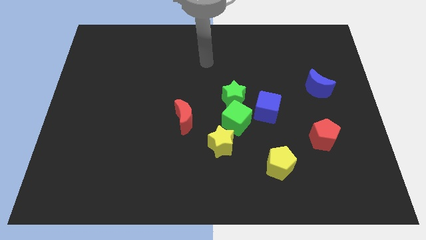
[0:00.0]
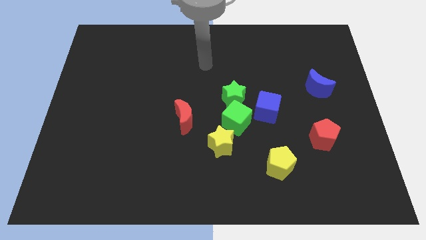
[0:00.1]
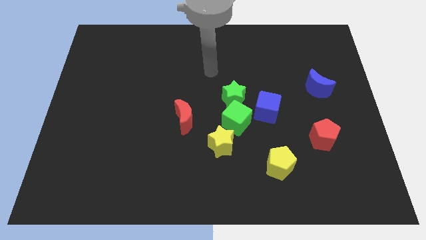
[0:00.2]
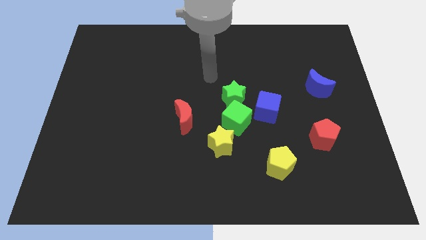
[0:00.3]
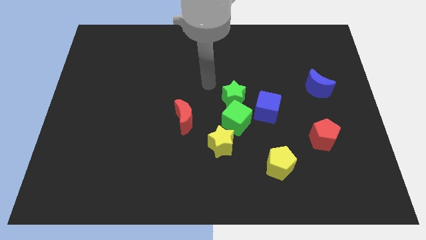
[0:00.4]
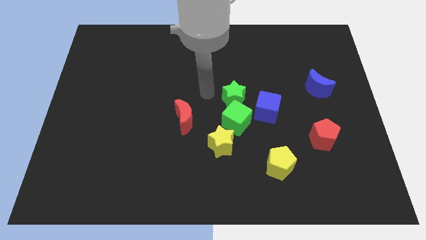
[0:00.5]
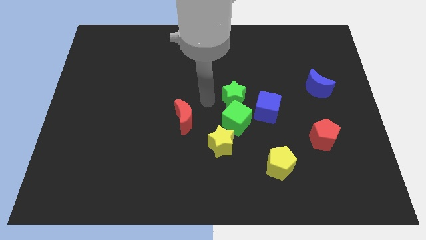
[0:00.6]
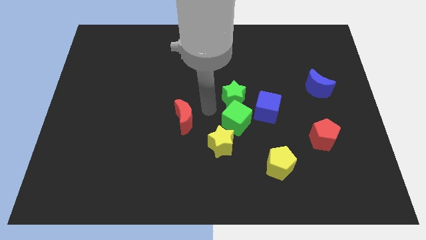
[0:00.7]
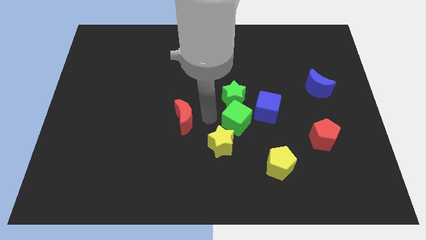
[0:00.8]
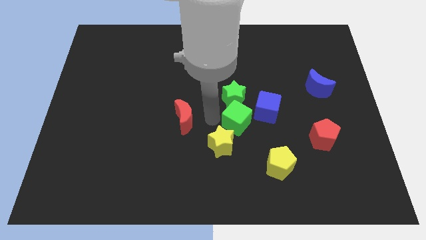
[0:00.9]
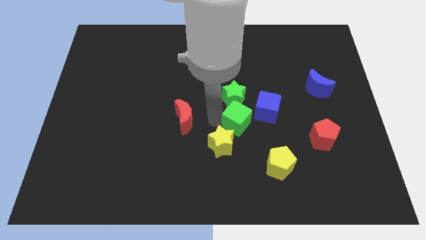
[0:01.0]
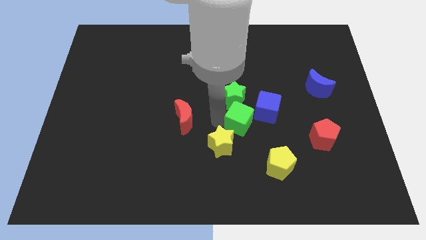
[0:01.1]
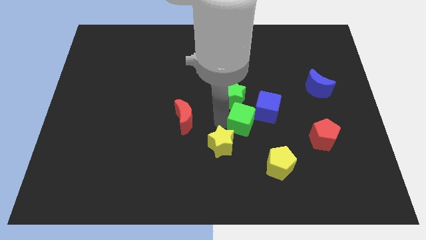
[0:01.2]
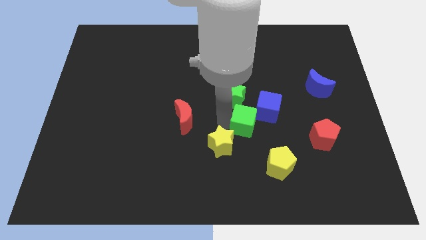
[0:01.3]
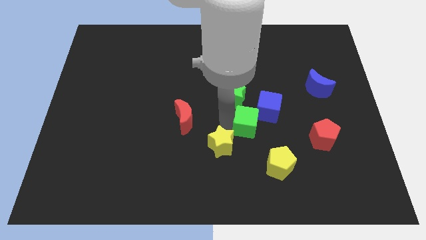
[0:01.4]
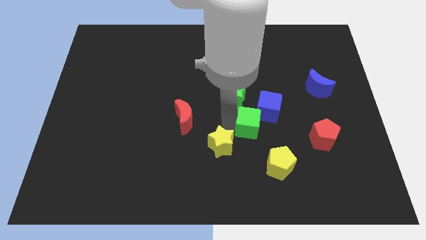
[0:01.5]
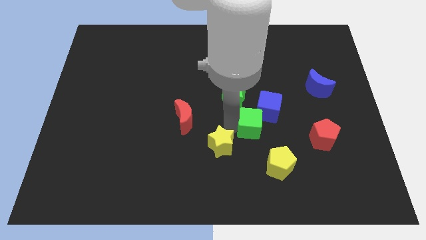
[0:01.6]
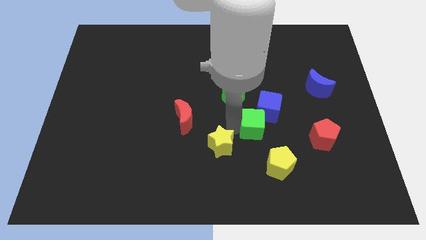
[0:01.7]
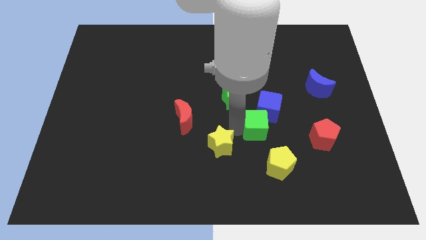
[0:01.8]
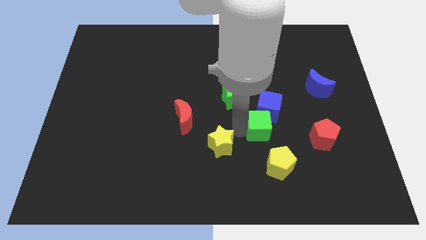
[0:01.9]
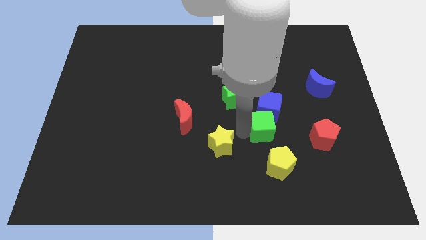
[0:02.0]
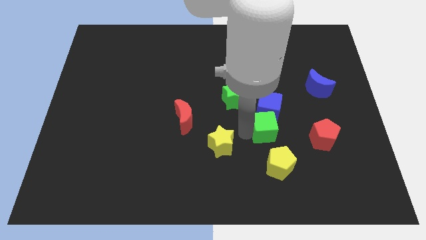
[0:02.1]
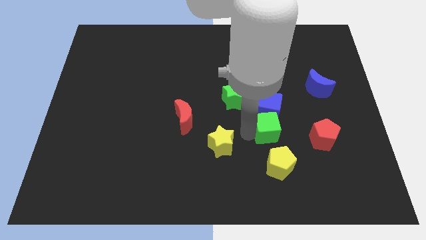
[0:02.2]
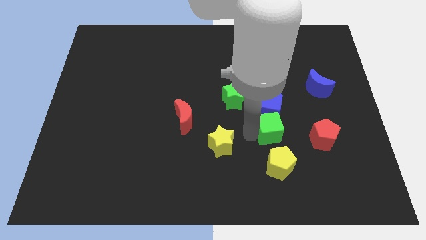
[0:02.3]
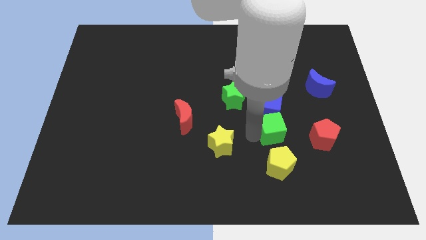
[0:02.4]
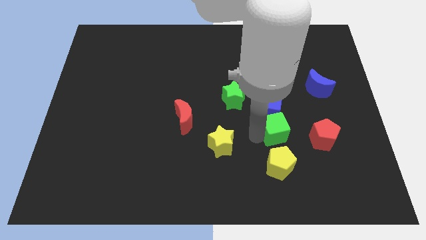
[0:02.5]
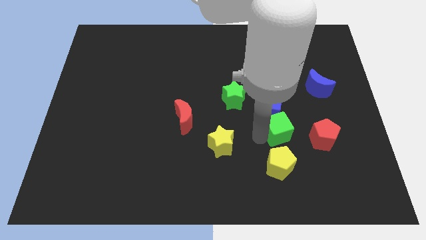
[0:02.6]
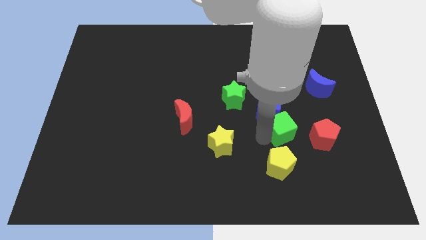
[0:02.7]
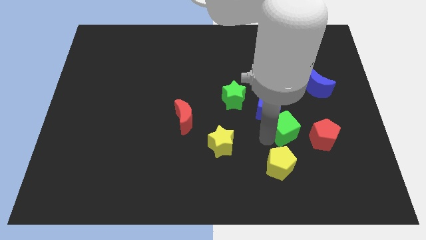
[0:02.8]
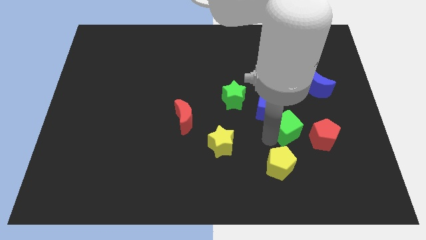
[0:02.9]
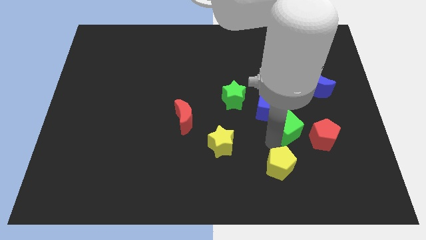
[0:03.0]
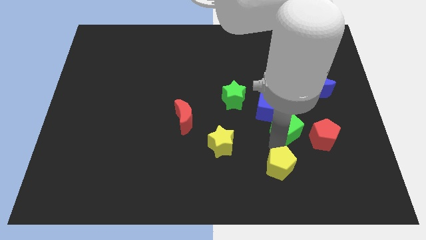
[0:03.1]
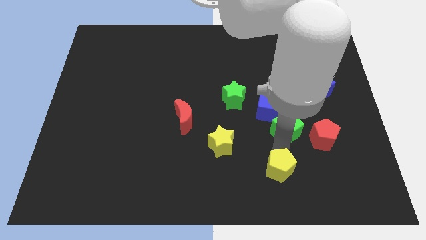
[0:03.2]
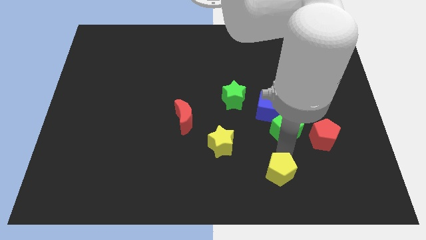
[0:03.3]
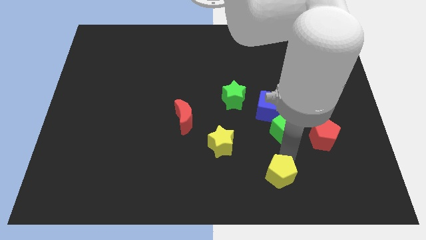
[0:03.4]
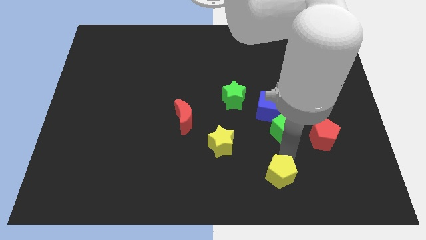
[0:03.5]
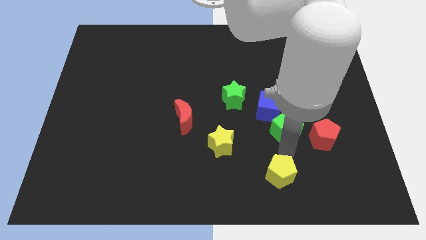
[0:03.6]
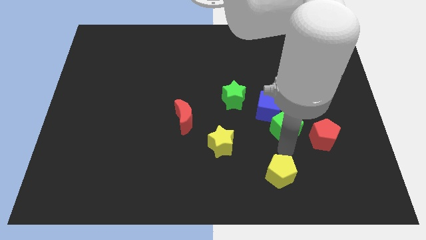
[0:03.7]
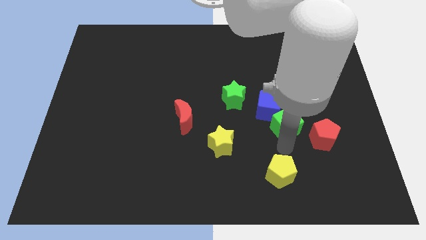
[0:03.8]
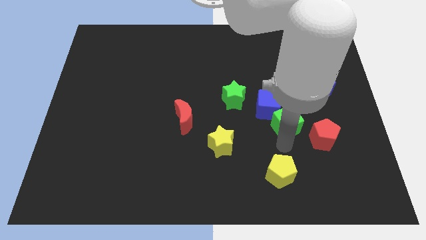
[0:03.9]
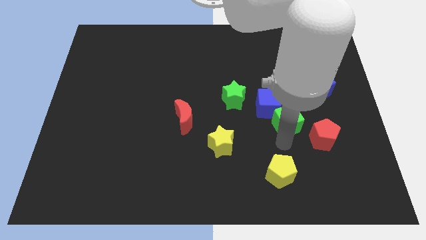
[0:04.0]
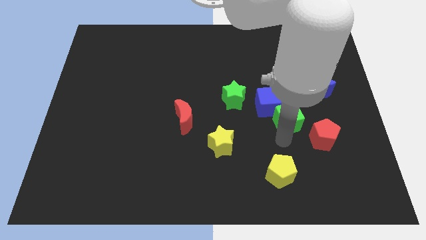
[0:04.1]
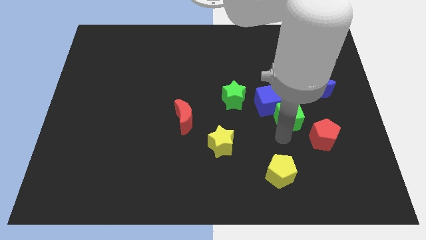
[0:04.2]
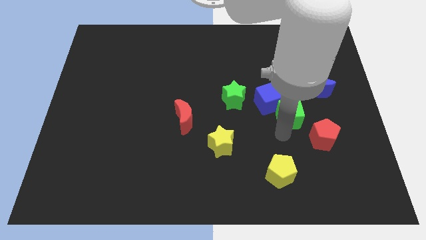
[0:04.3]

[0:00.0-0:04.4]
move the green cube slightly diagonally upwards and right

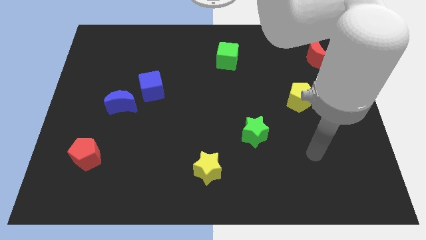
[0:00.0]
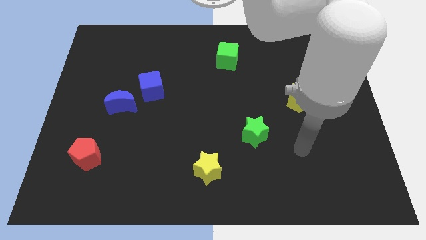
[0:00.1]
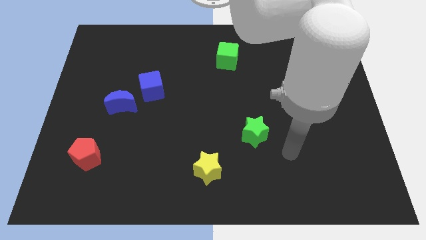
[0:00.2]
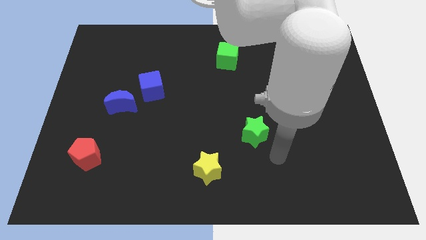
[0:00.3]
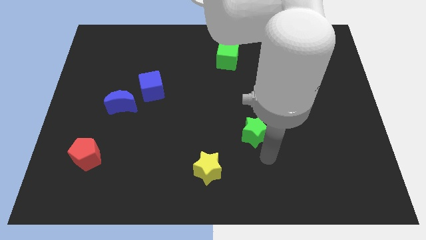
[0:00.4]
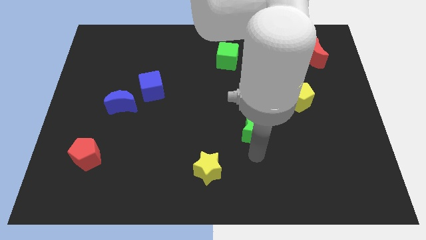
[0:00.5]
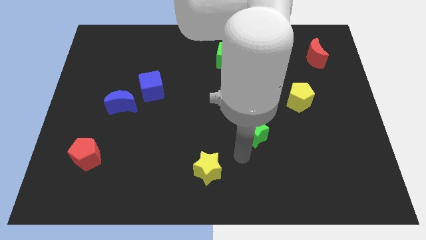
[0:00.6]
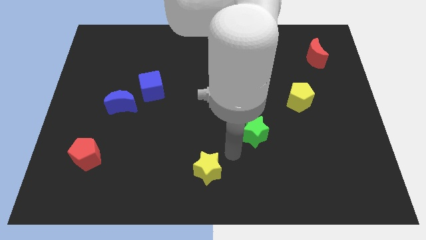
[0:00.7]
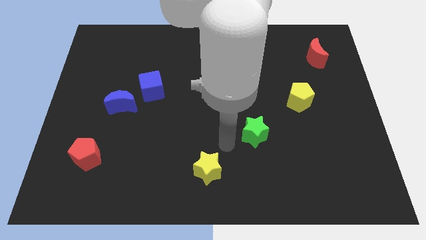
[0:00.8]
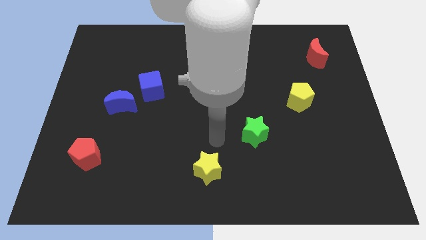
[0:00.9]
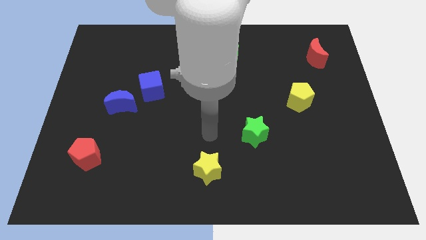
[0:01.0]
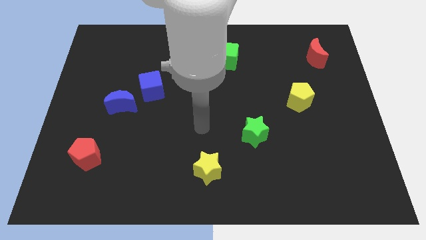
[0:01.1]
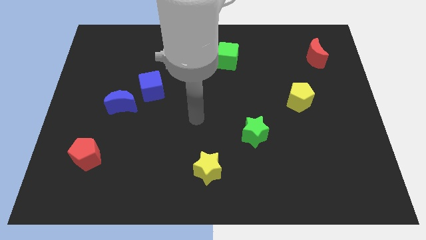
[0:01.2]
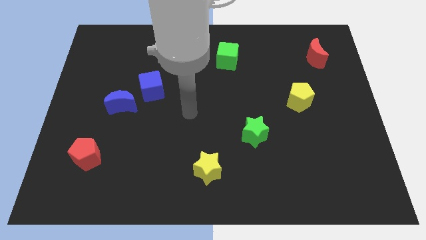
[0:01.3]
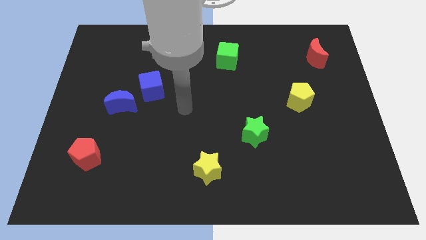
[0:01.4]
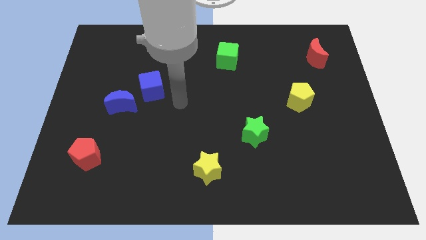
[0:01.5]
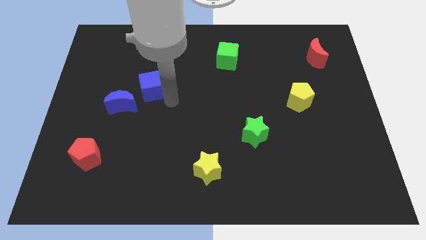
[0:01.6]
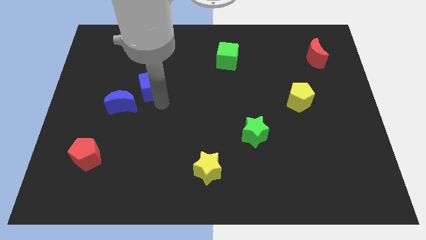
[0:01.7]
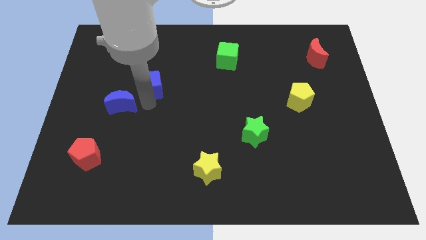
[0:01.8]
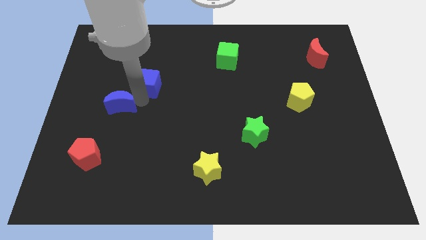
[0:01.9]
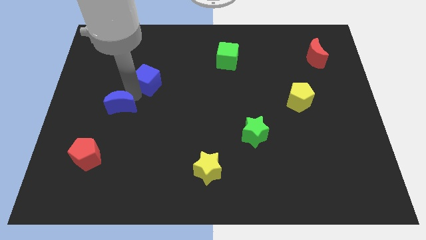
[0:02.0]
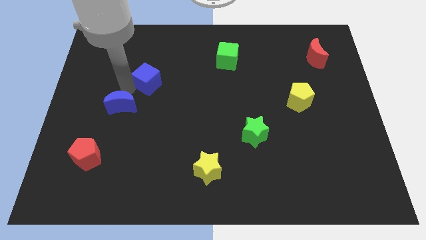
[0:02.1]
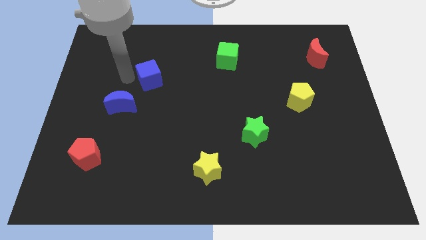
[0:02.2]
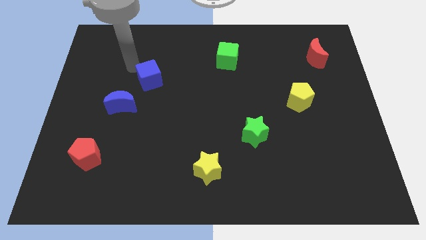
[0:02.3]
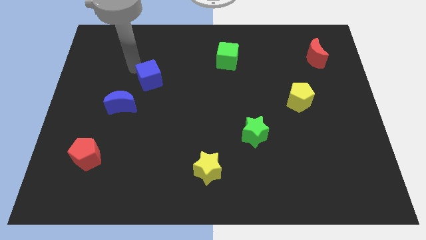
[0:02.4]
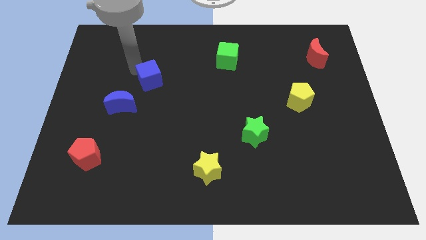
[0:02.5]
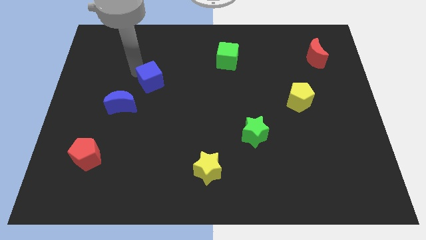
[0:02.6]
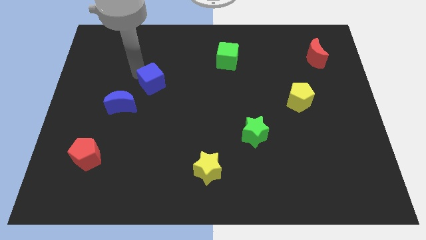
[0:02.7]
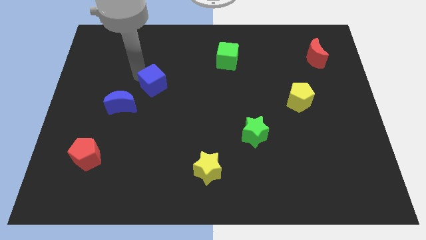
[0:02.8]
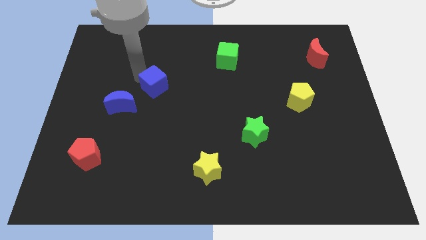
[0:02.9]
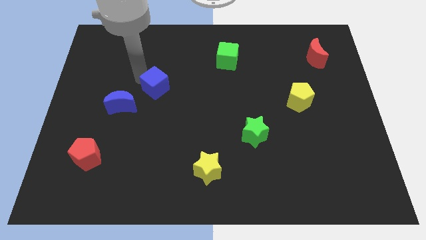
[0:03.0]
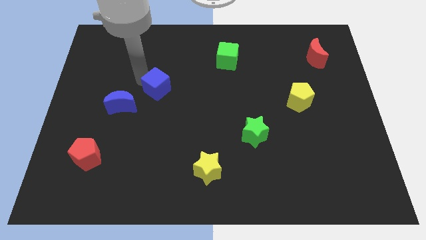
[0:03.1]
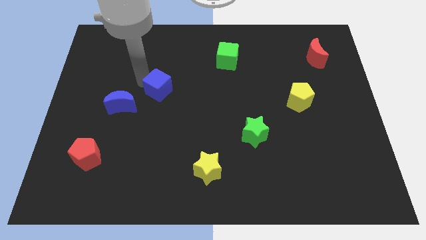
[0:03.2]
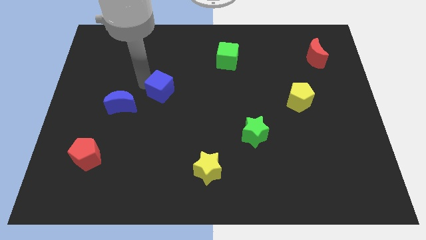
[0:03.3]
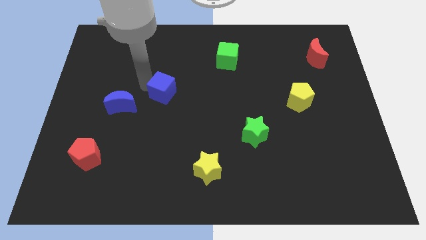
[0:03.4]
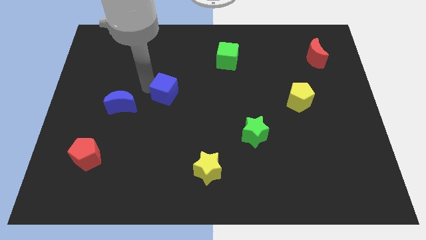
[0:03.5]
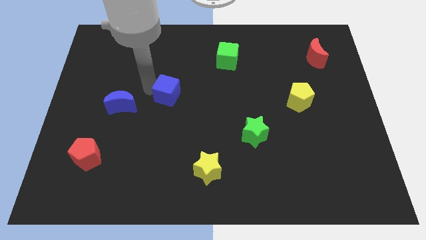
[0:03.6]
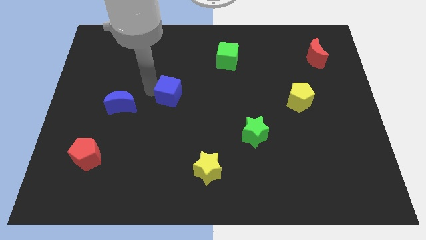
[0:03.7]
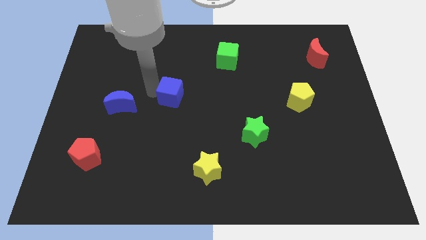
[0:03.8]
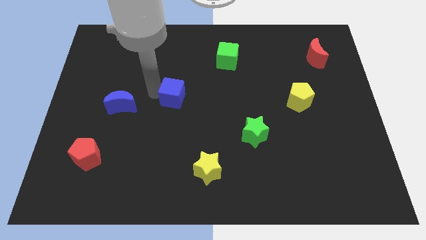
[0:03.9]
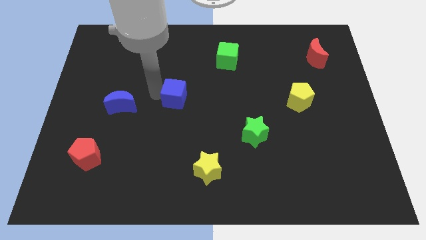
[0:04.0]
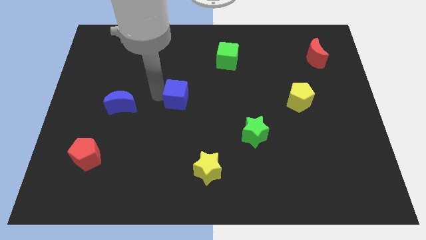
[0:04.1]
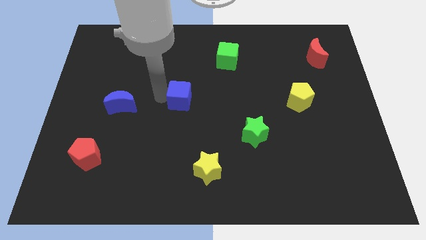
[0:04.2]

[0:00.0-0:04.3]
push the blue cube right a little bit
